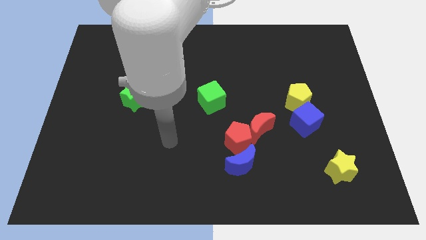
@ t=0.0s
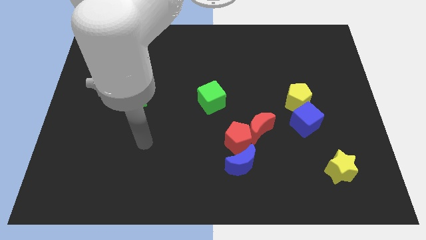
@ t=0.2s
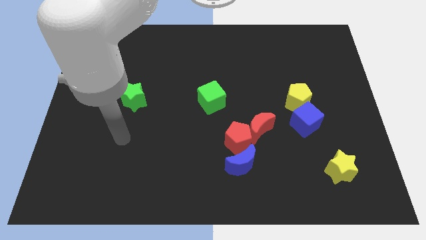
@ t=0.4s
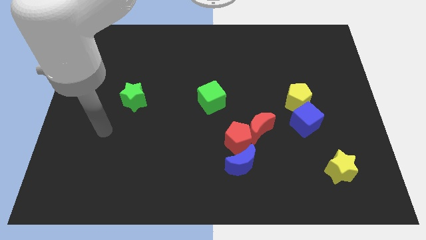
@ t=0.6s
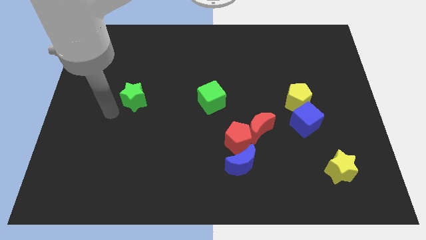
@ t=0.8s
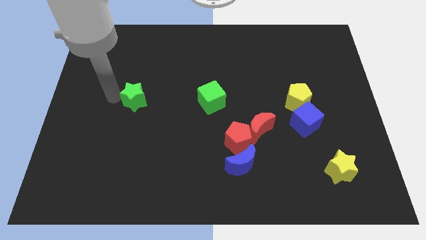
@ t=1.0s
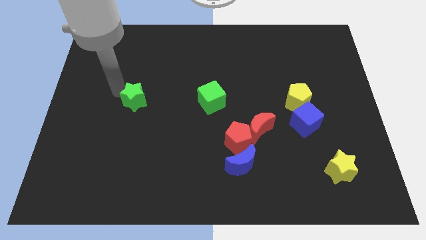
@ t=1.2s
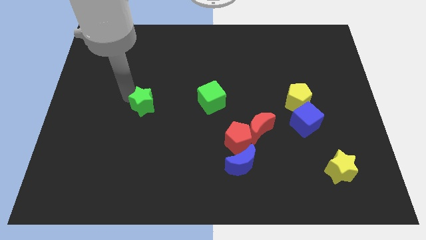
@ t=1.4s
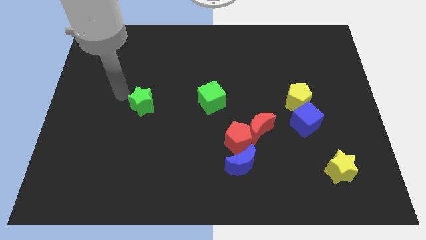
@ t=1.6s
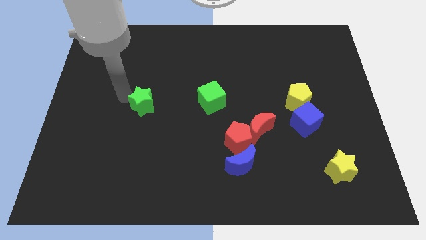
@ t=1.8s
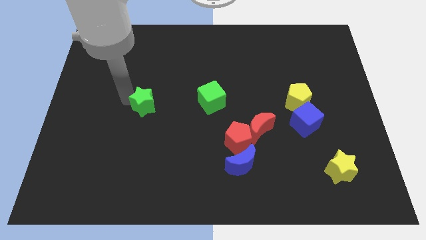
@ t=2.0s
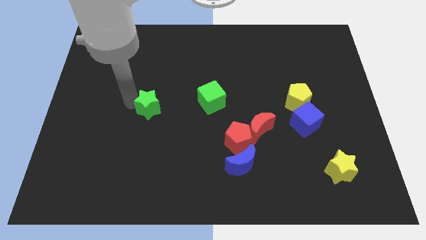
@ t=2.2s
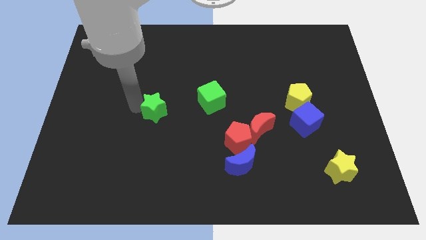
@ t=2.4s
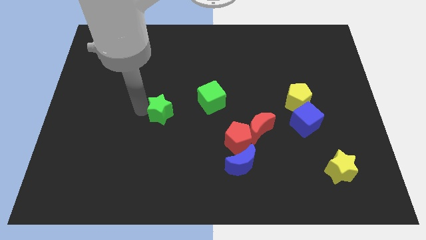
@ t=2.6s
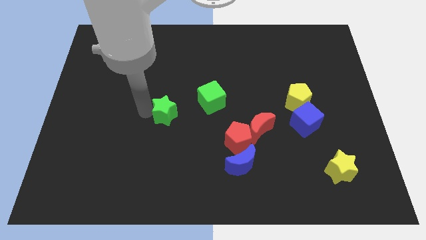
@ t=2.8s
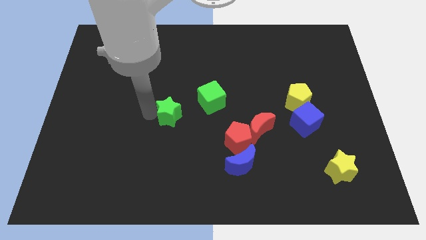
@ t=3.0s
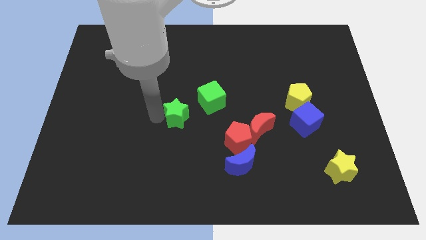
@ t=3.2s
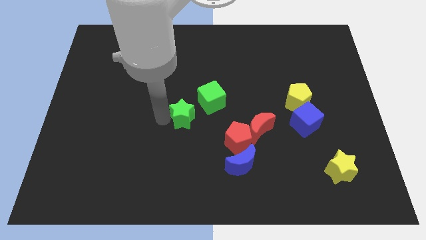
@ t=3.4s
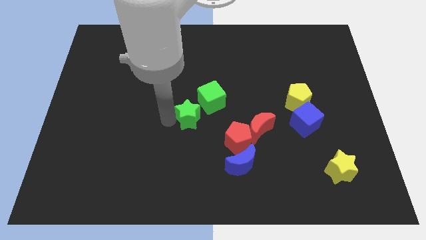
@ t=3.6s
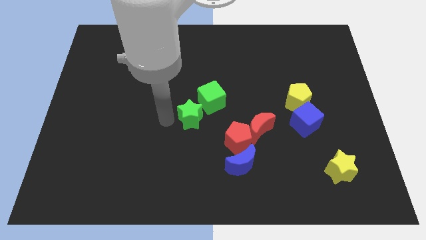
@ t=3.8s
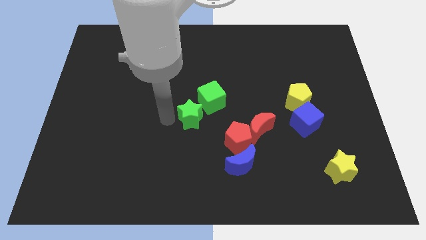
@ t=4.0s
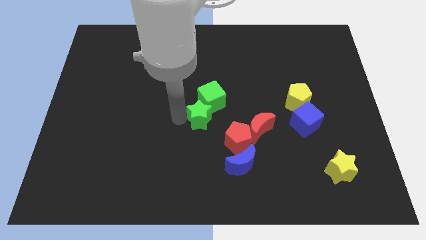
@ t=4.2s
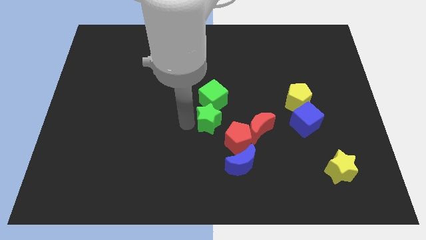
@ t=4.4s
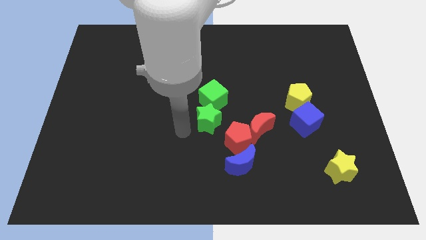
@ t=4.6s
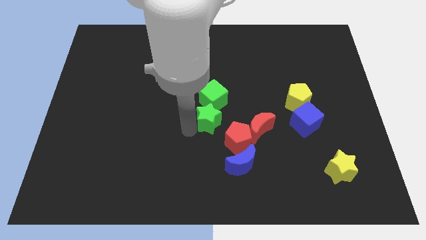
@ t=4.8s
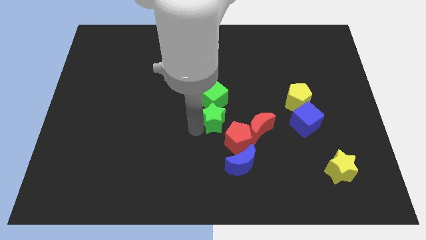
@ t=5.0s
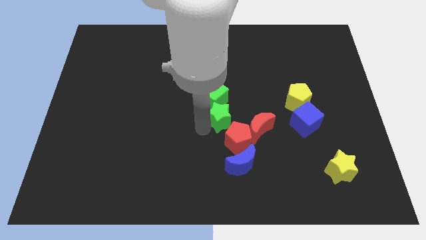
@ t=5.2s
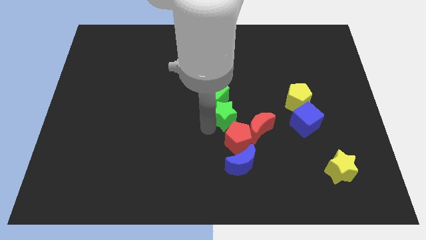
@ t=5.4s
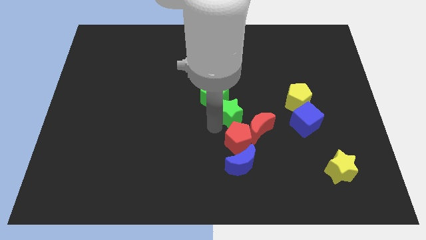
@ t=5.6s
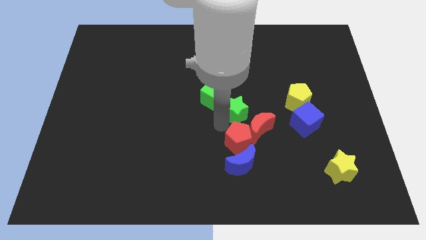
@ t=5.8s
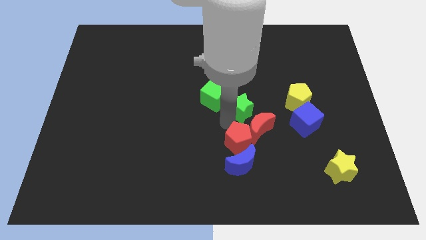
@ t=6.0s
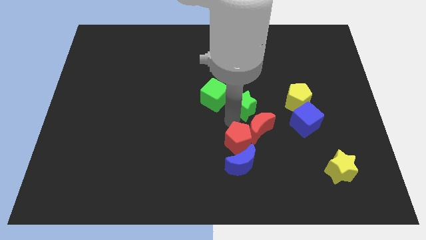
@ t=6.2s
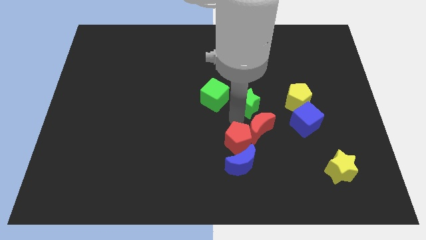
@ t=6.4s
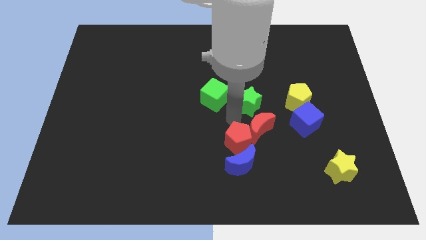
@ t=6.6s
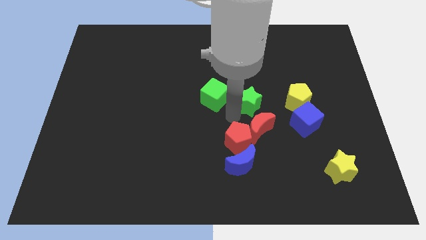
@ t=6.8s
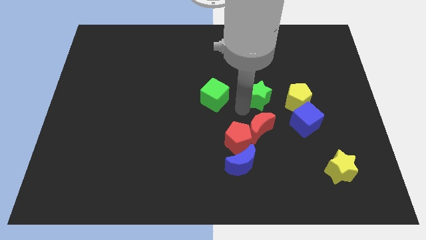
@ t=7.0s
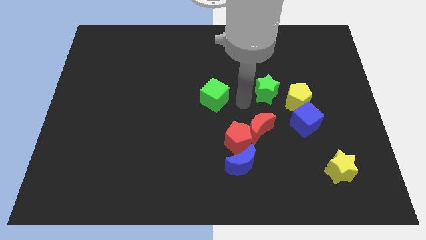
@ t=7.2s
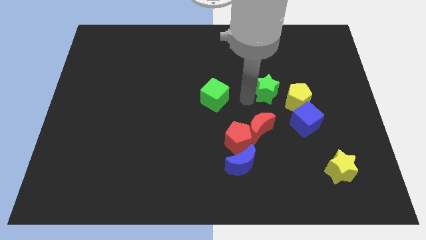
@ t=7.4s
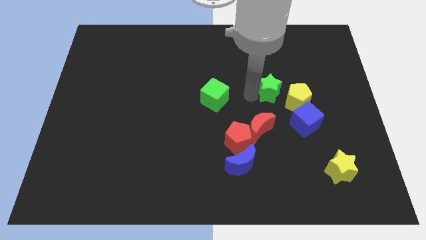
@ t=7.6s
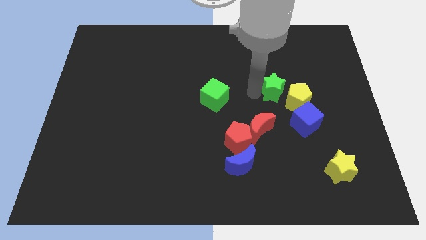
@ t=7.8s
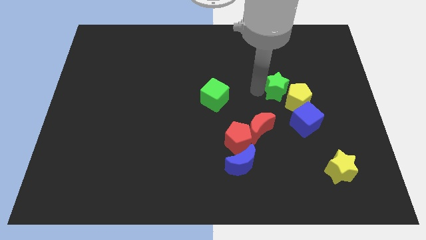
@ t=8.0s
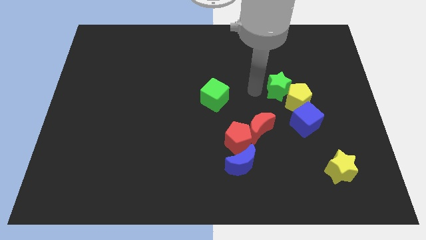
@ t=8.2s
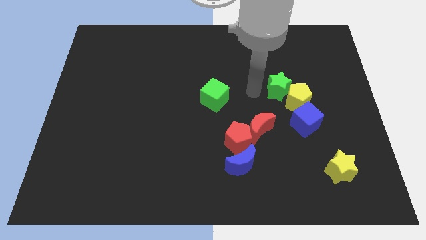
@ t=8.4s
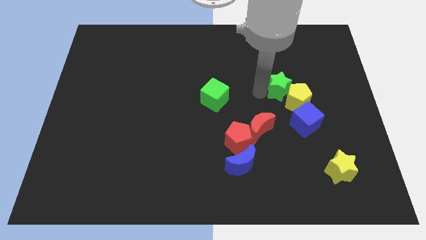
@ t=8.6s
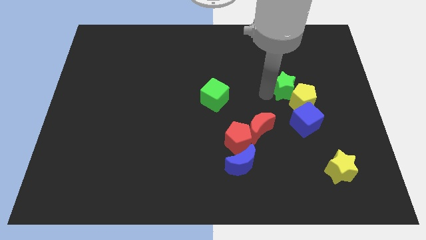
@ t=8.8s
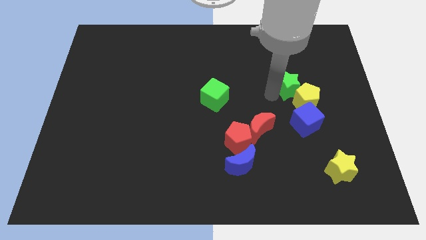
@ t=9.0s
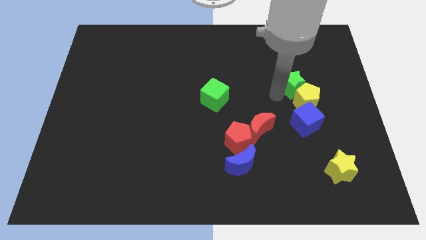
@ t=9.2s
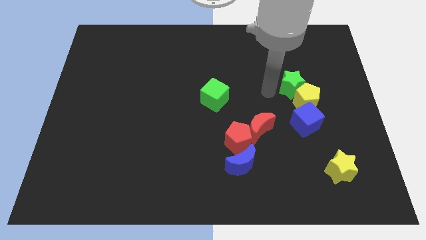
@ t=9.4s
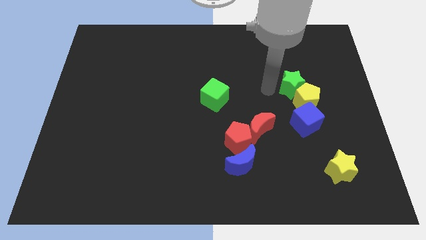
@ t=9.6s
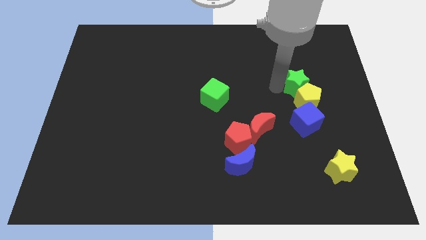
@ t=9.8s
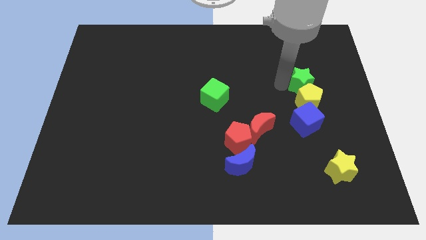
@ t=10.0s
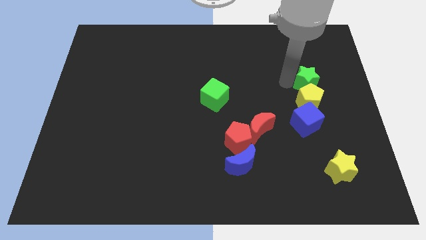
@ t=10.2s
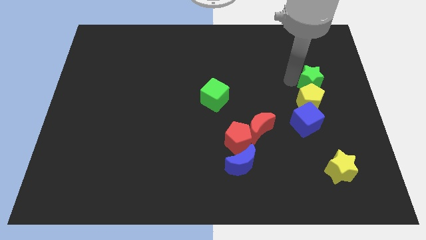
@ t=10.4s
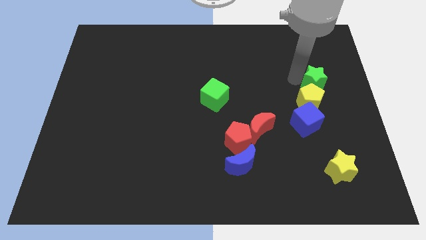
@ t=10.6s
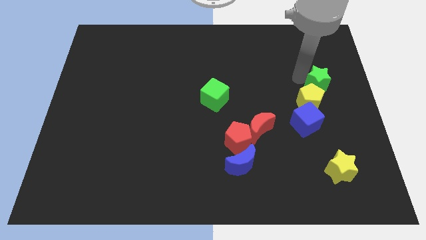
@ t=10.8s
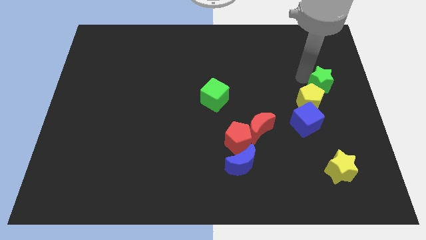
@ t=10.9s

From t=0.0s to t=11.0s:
put the green star to the center right
